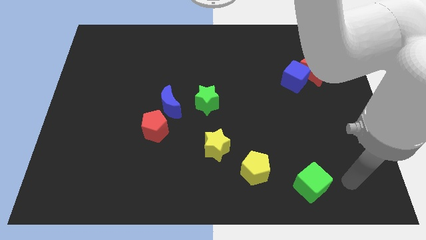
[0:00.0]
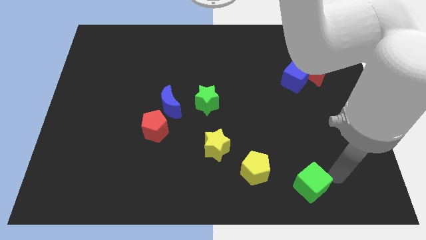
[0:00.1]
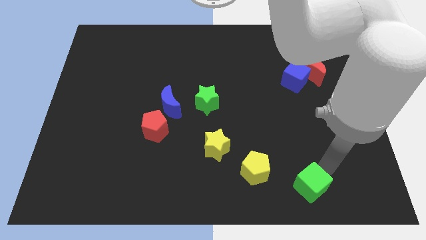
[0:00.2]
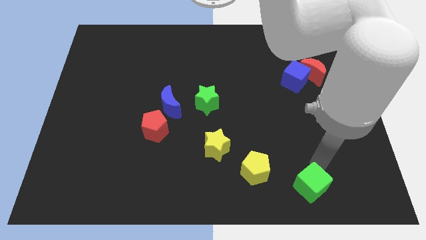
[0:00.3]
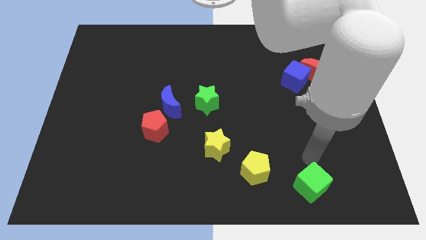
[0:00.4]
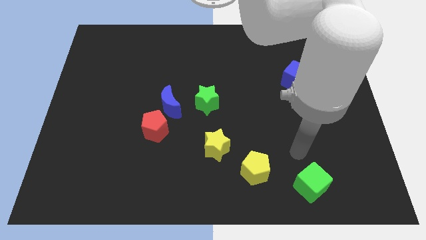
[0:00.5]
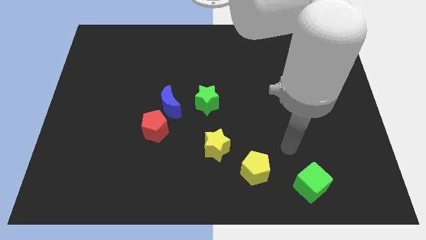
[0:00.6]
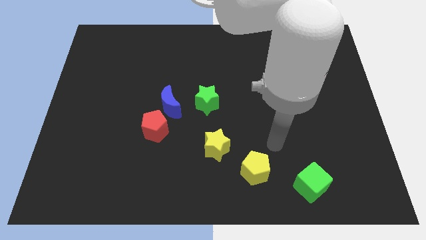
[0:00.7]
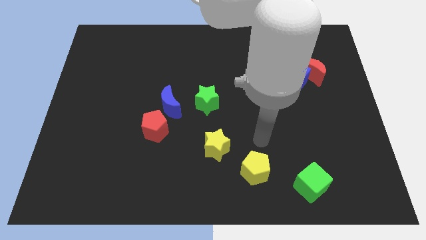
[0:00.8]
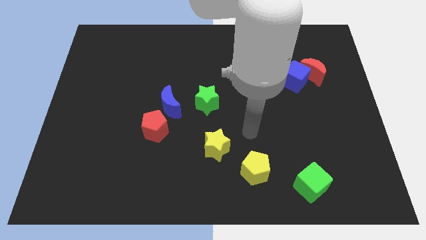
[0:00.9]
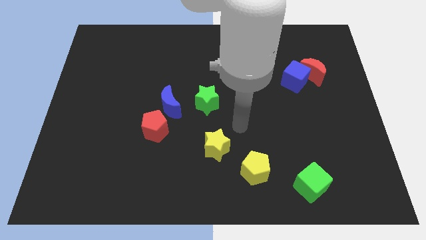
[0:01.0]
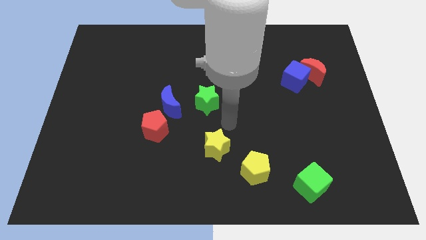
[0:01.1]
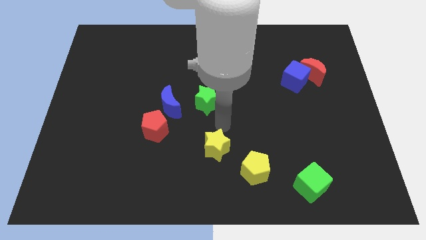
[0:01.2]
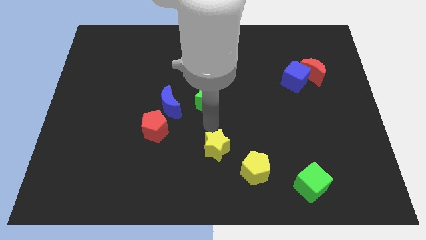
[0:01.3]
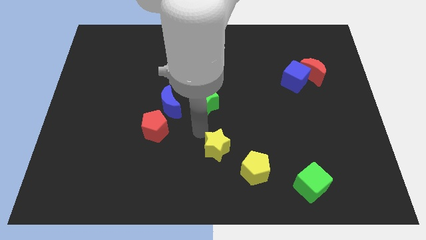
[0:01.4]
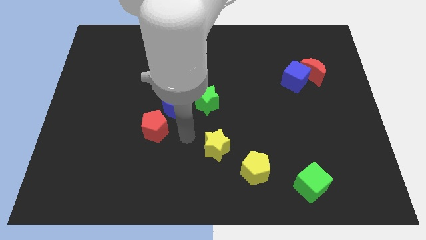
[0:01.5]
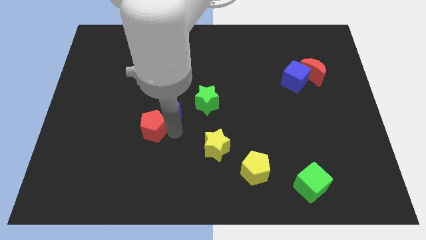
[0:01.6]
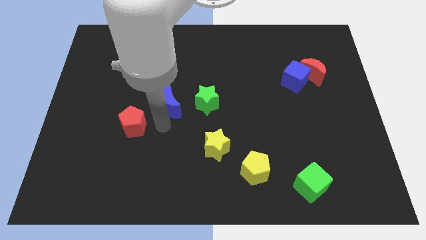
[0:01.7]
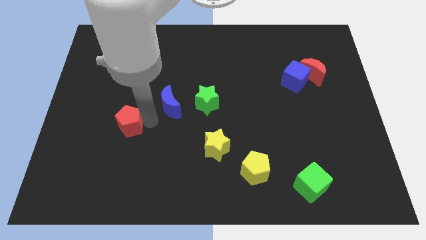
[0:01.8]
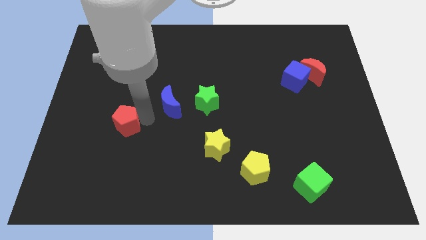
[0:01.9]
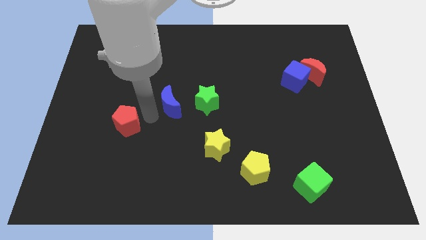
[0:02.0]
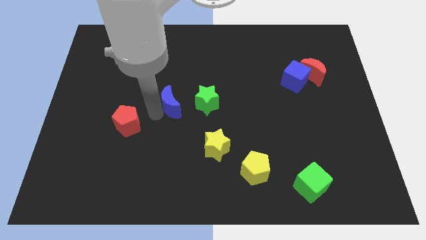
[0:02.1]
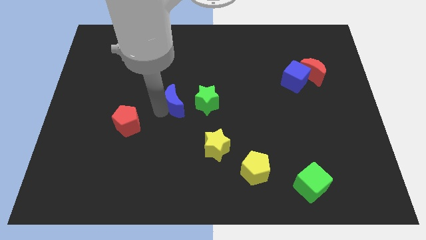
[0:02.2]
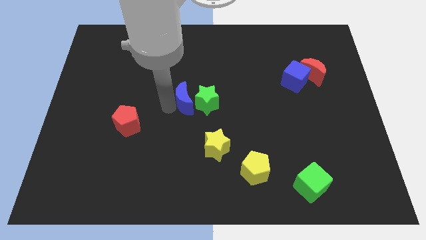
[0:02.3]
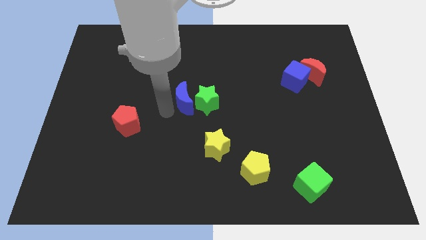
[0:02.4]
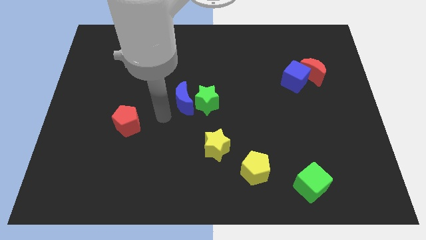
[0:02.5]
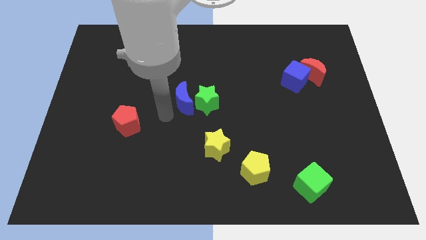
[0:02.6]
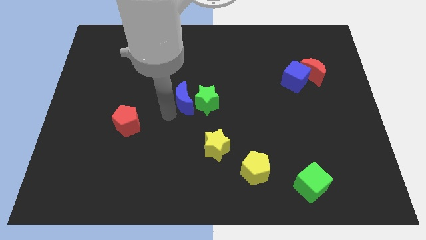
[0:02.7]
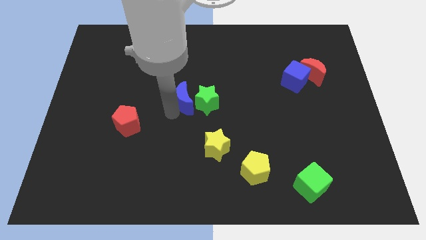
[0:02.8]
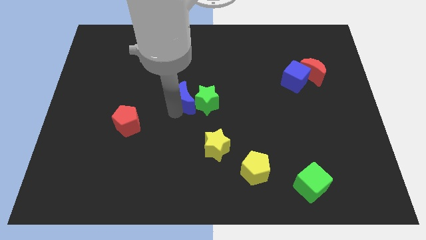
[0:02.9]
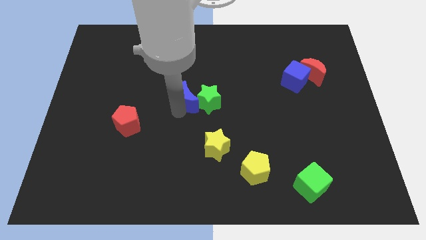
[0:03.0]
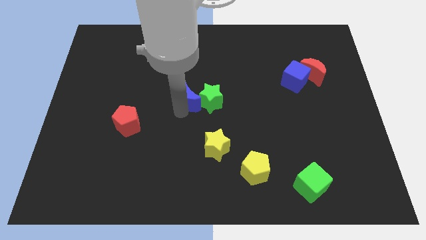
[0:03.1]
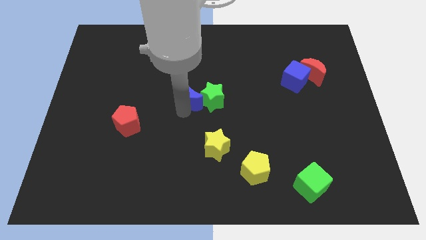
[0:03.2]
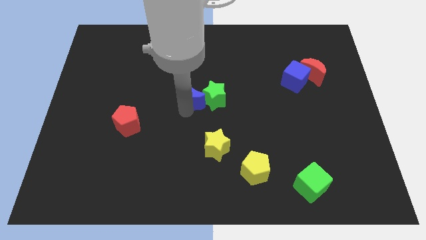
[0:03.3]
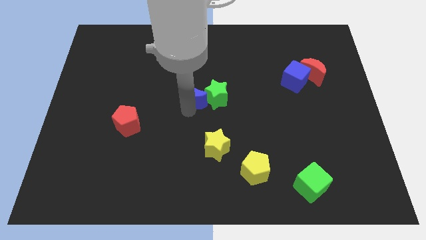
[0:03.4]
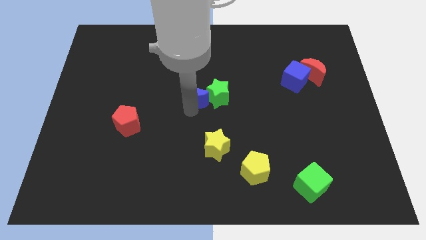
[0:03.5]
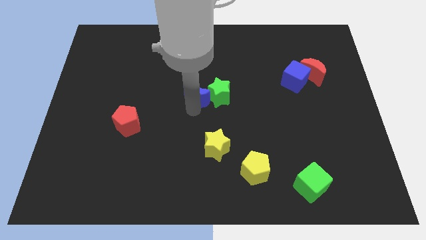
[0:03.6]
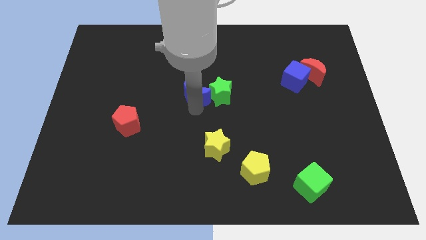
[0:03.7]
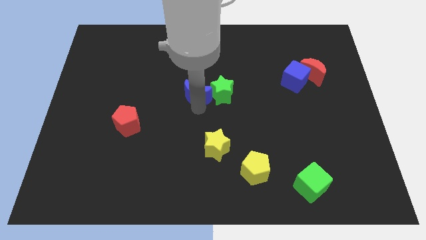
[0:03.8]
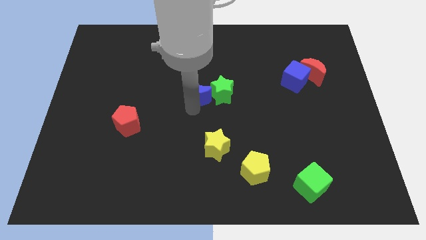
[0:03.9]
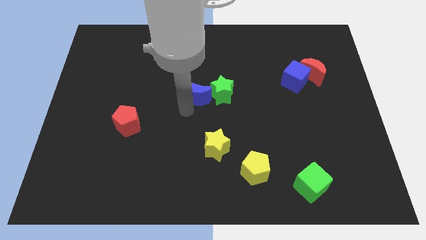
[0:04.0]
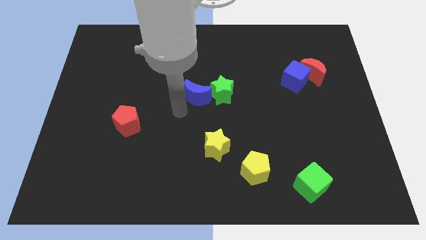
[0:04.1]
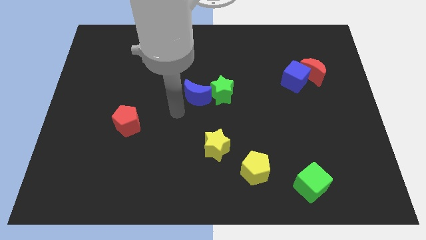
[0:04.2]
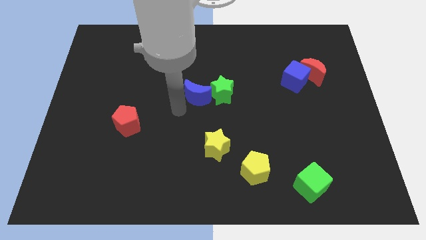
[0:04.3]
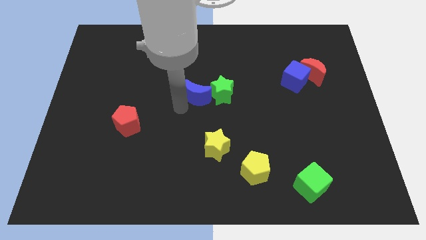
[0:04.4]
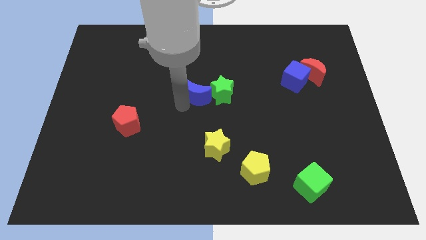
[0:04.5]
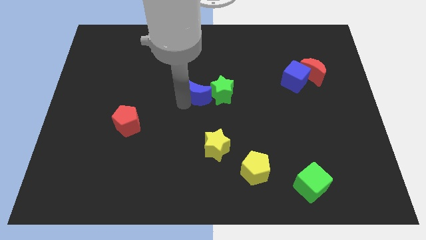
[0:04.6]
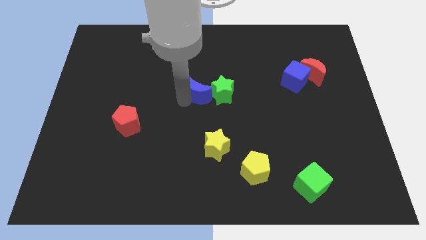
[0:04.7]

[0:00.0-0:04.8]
slightly move the blue moon up and right diagonally

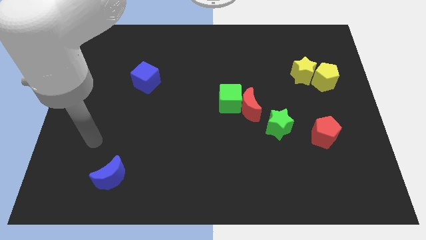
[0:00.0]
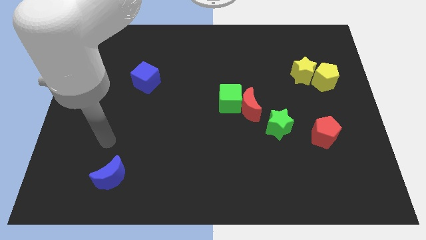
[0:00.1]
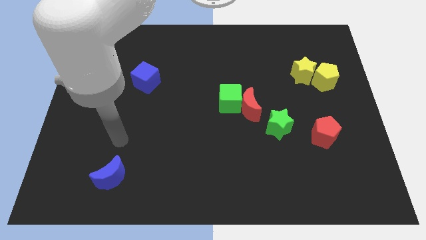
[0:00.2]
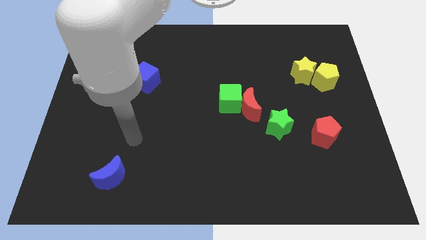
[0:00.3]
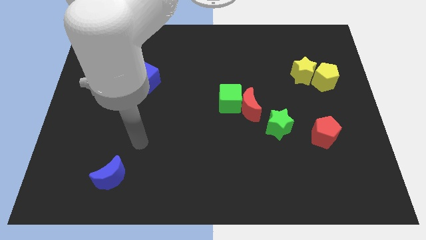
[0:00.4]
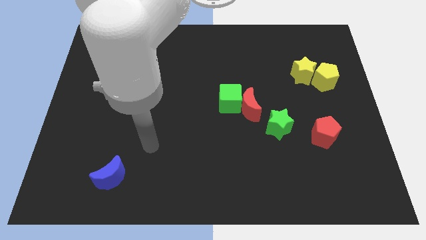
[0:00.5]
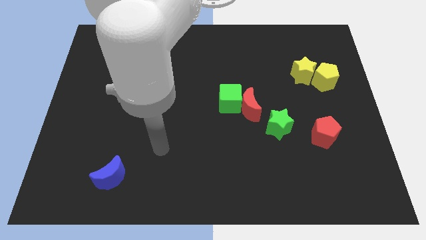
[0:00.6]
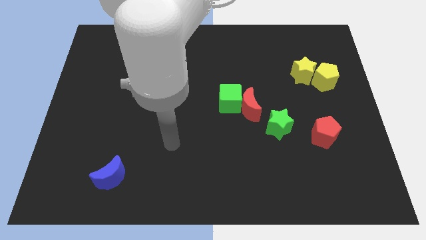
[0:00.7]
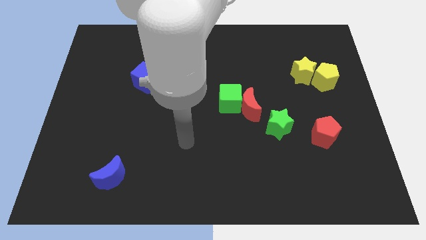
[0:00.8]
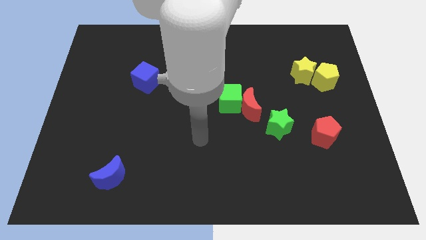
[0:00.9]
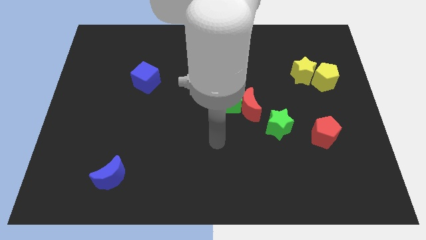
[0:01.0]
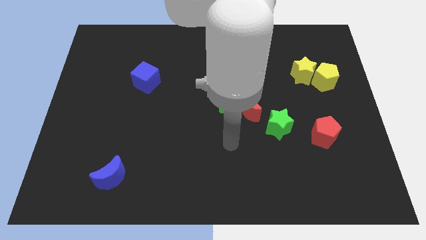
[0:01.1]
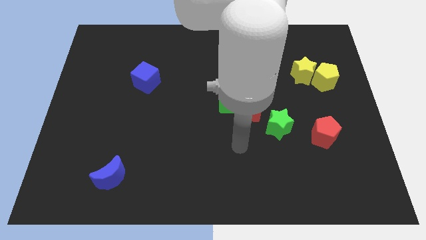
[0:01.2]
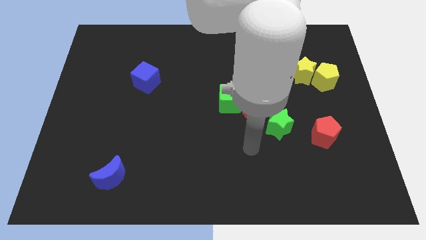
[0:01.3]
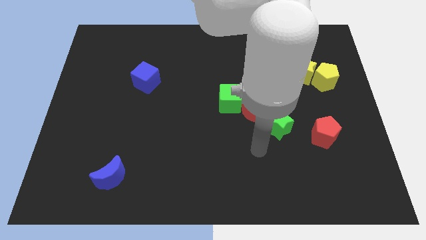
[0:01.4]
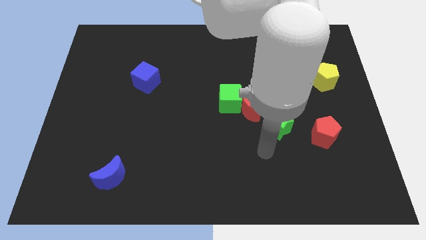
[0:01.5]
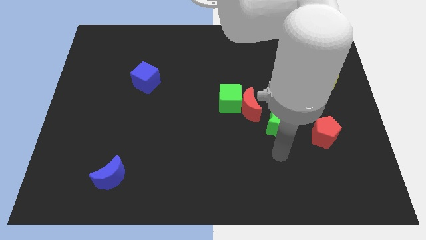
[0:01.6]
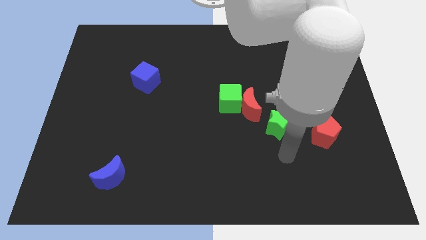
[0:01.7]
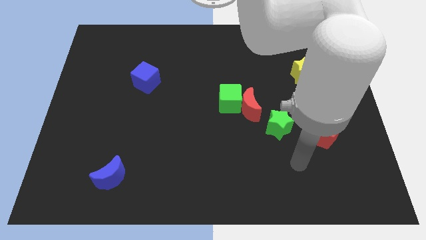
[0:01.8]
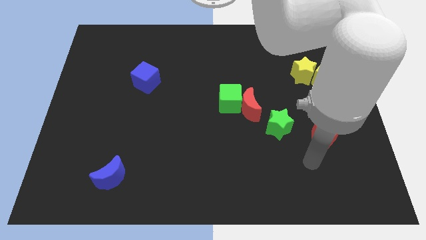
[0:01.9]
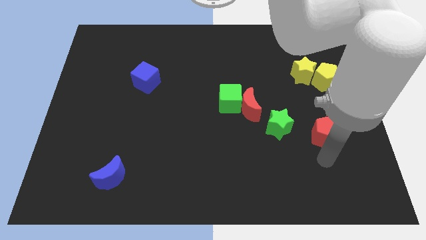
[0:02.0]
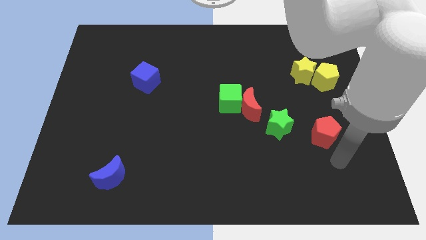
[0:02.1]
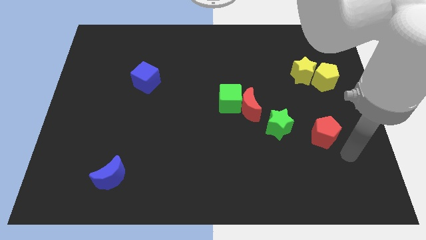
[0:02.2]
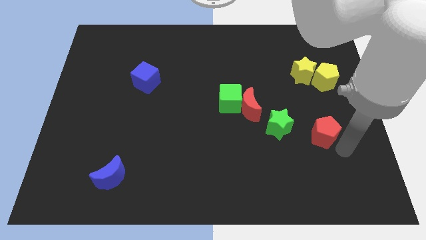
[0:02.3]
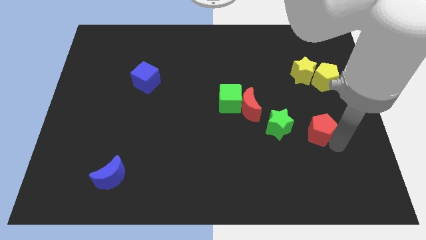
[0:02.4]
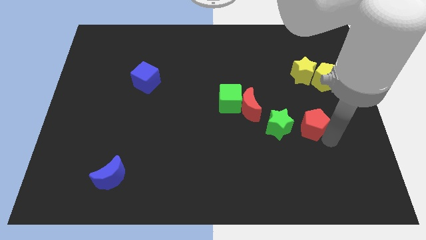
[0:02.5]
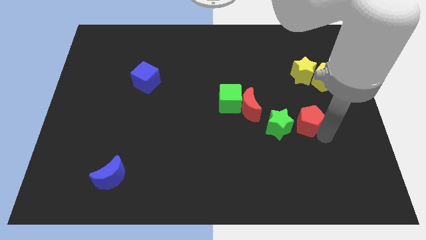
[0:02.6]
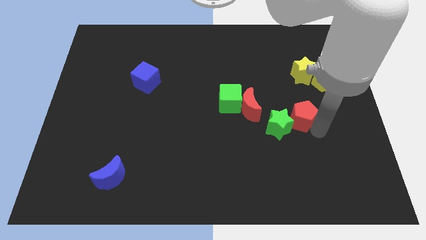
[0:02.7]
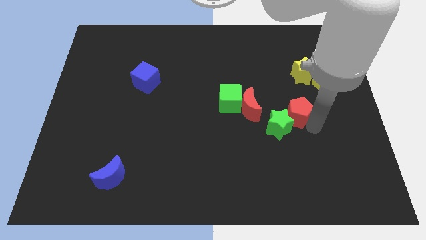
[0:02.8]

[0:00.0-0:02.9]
push the red pentagon a bit diagonally upwards and left

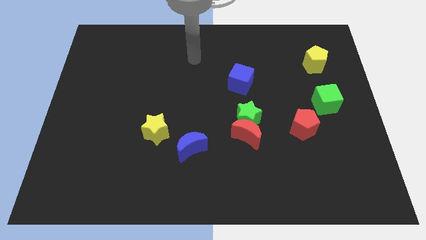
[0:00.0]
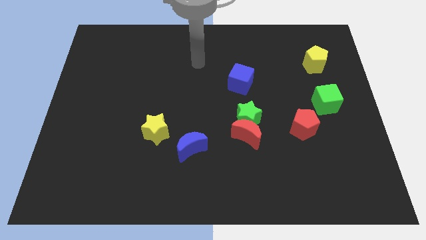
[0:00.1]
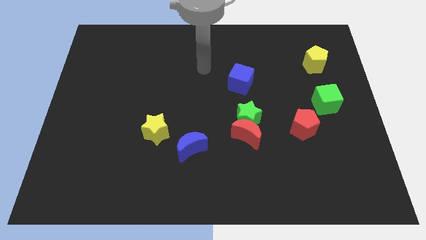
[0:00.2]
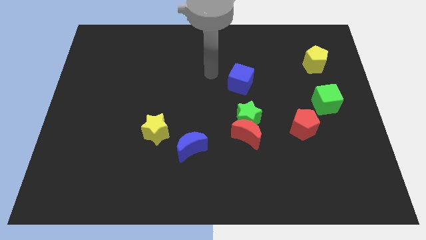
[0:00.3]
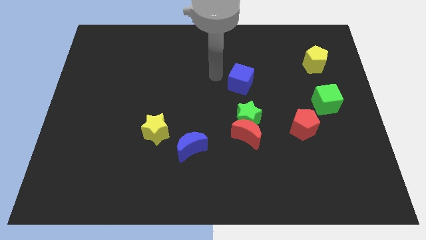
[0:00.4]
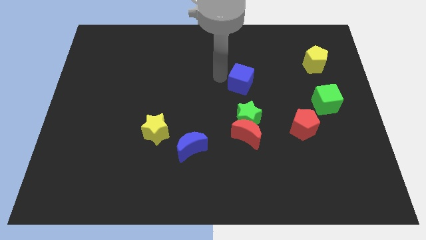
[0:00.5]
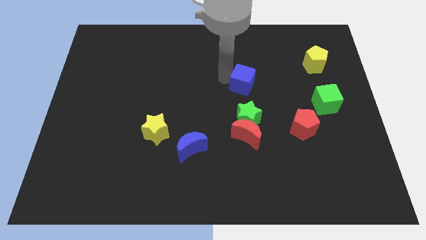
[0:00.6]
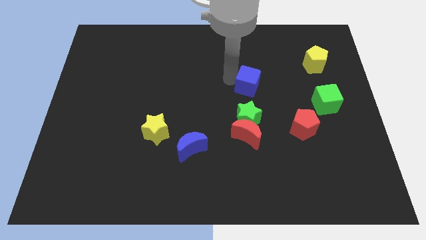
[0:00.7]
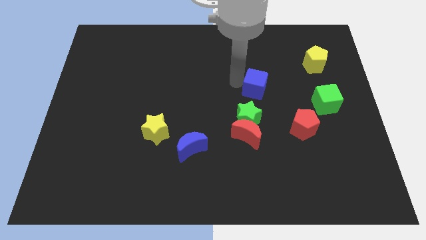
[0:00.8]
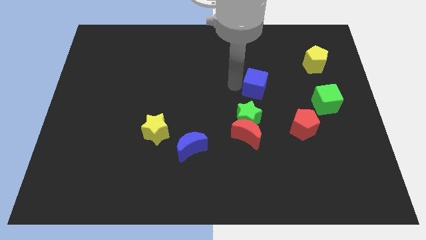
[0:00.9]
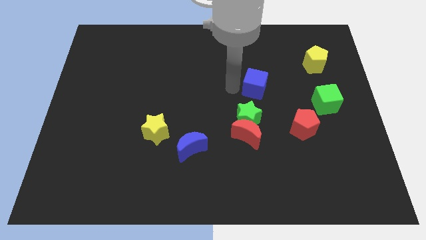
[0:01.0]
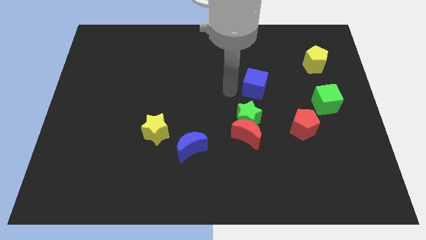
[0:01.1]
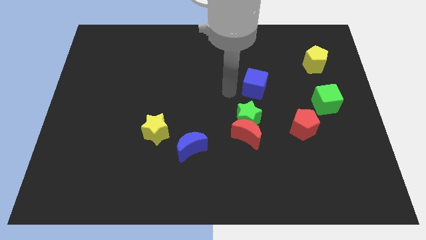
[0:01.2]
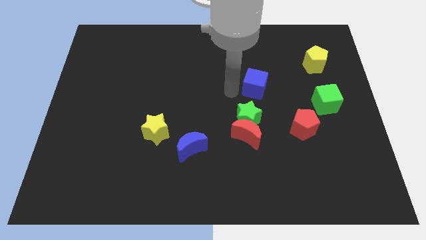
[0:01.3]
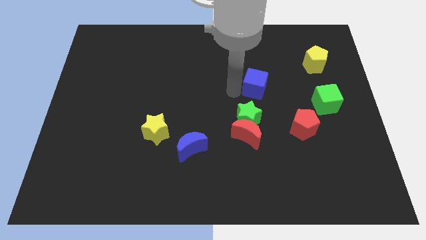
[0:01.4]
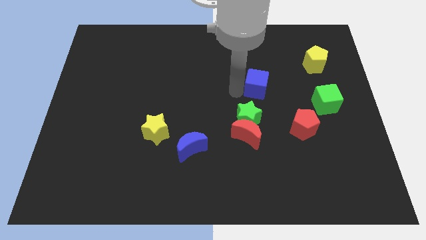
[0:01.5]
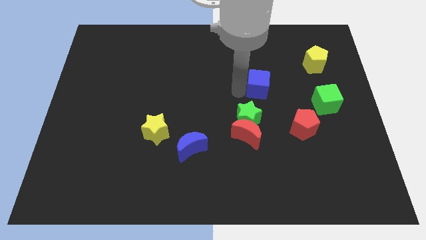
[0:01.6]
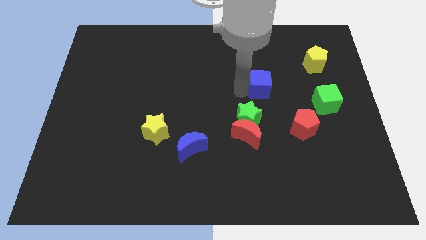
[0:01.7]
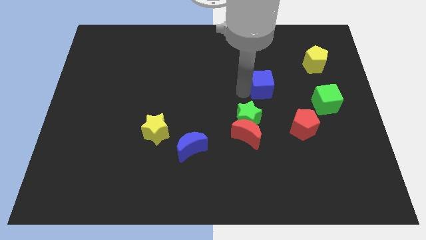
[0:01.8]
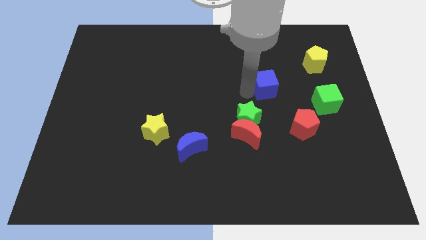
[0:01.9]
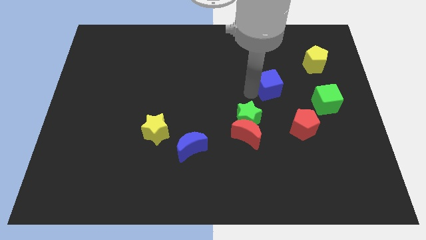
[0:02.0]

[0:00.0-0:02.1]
slightly move the blue cube right
